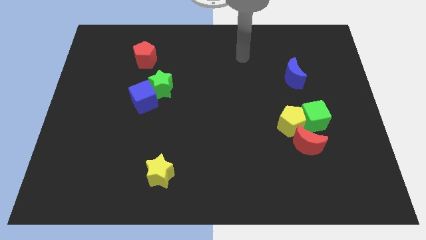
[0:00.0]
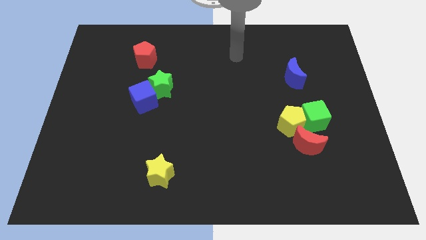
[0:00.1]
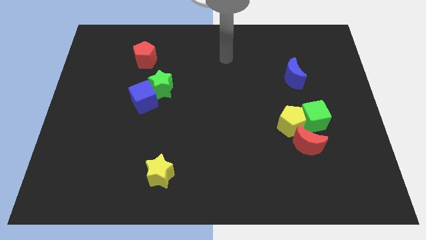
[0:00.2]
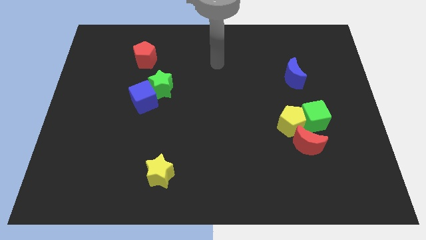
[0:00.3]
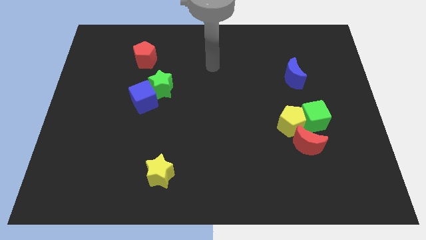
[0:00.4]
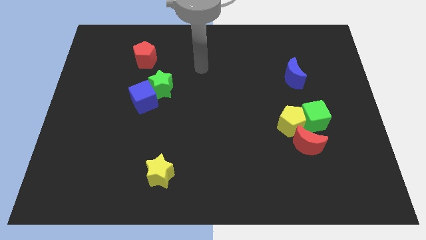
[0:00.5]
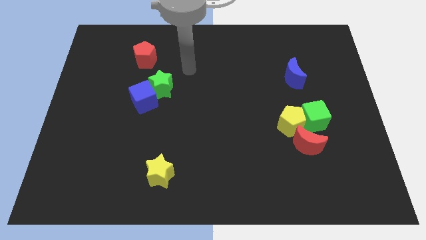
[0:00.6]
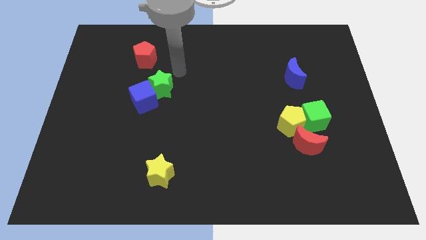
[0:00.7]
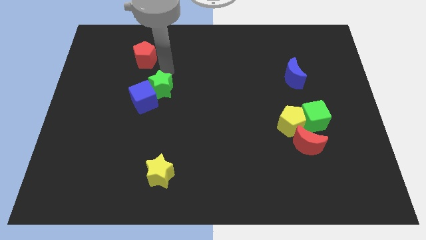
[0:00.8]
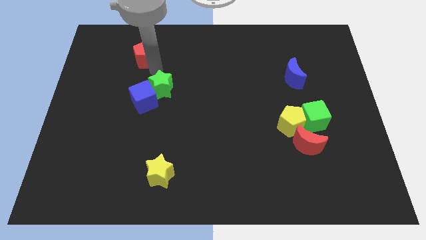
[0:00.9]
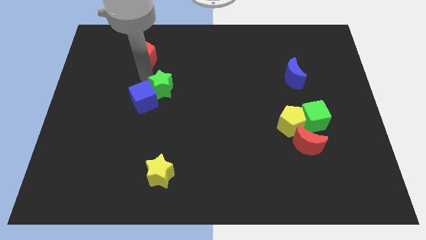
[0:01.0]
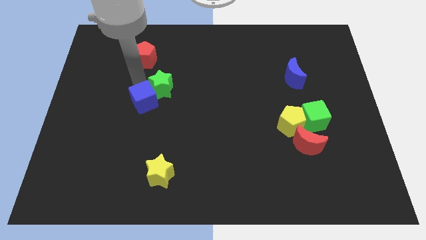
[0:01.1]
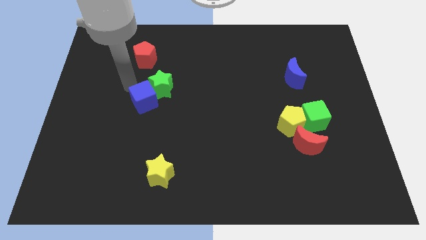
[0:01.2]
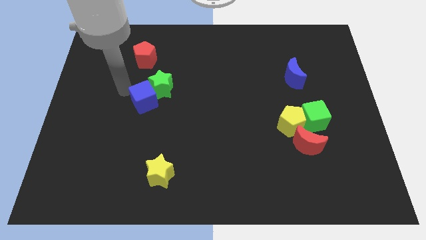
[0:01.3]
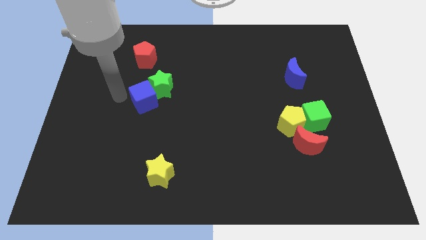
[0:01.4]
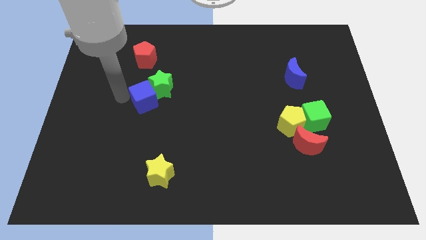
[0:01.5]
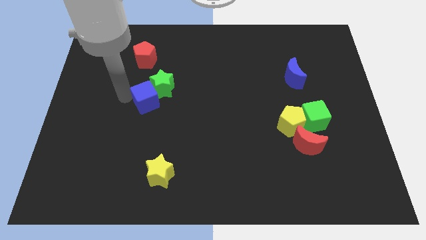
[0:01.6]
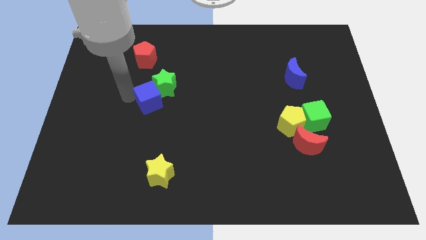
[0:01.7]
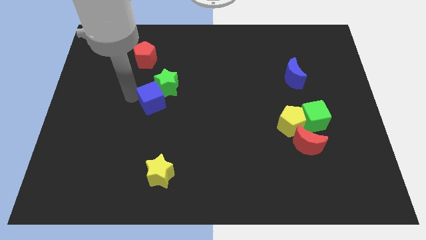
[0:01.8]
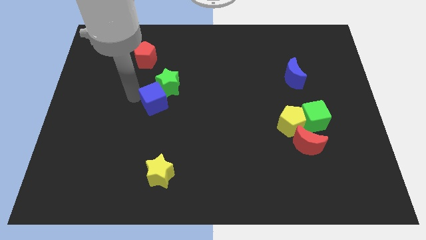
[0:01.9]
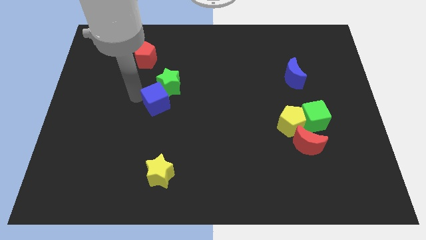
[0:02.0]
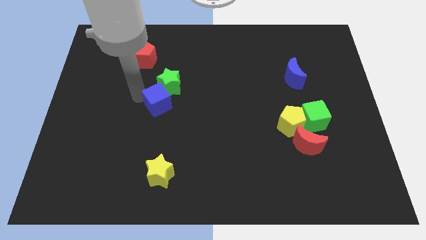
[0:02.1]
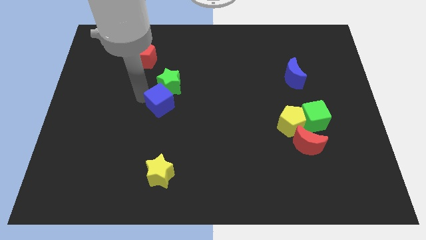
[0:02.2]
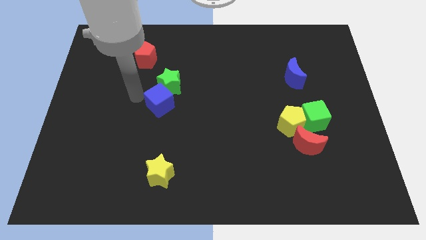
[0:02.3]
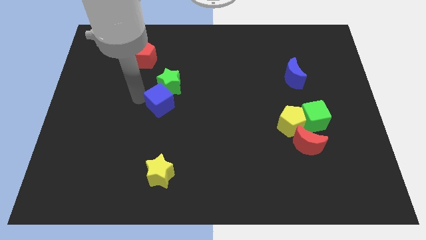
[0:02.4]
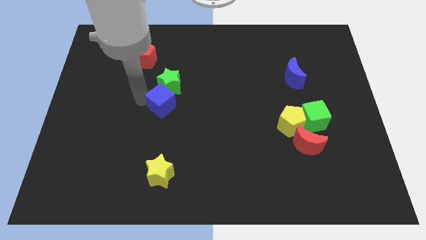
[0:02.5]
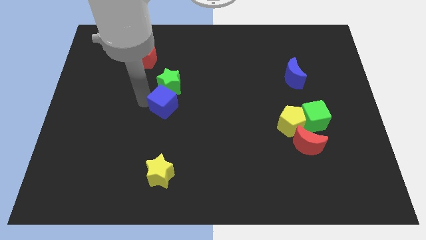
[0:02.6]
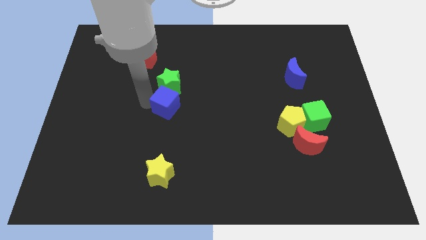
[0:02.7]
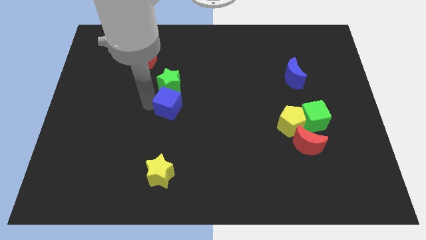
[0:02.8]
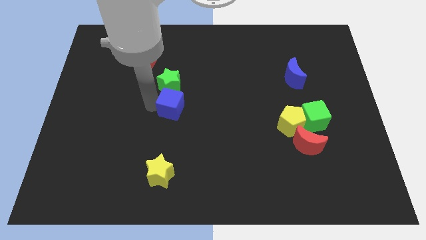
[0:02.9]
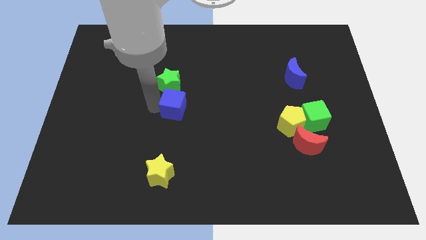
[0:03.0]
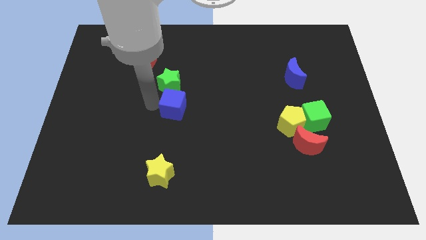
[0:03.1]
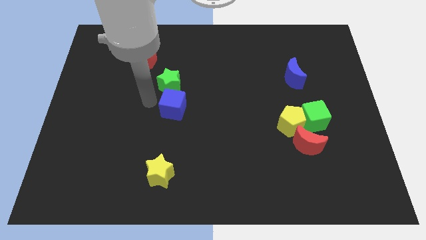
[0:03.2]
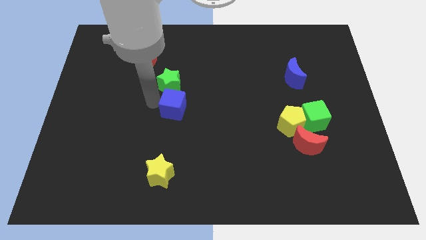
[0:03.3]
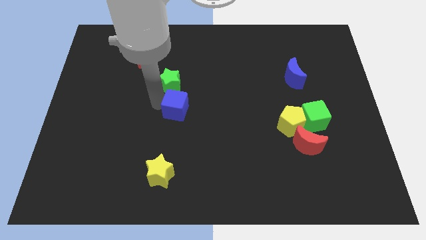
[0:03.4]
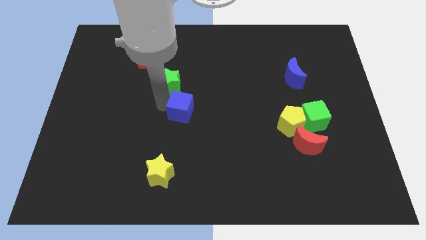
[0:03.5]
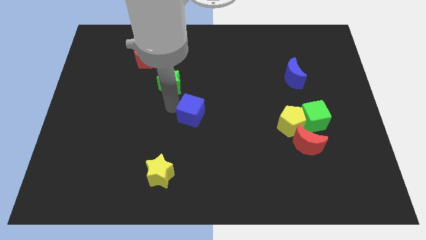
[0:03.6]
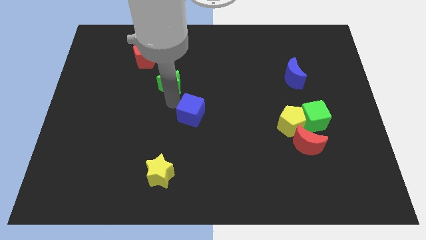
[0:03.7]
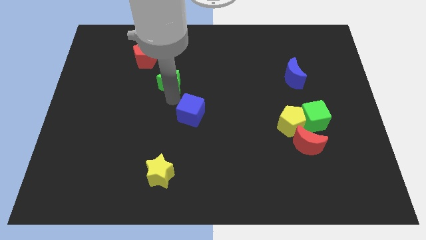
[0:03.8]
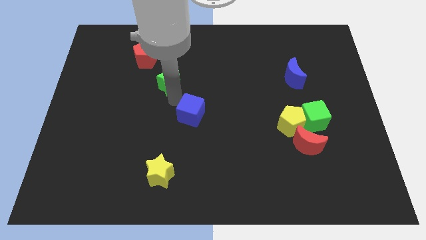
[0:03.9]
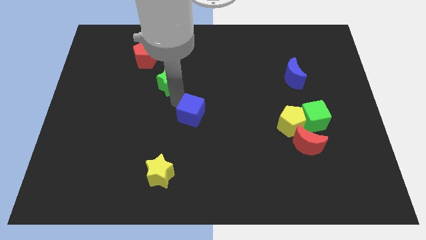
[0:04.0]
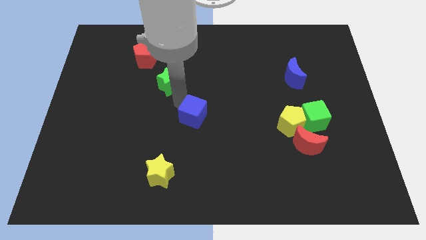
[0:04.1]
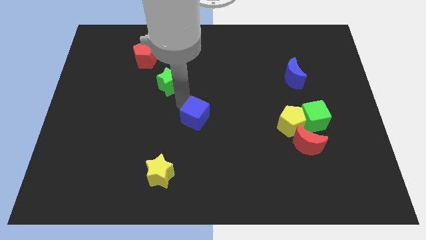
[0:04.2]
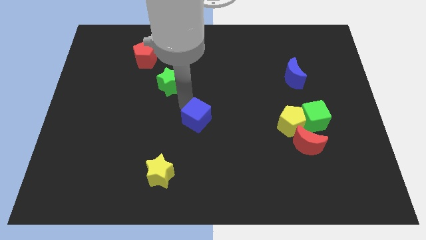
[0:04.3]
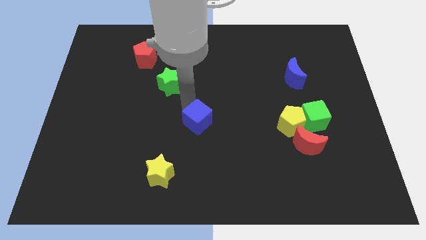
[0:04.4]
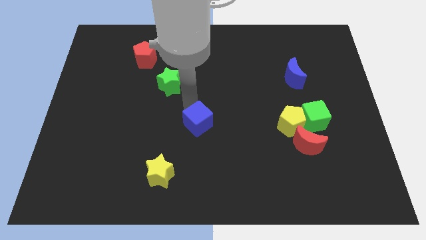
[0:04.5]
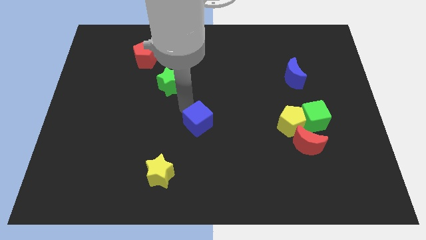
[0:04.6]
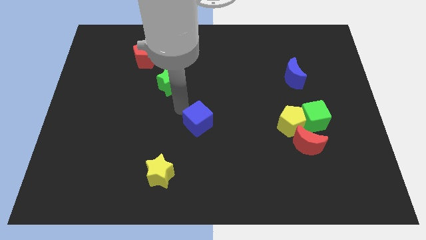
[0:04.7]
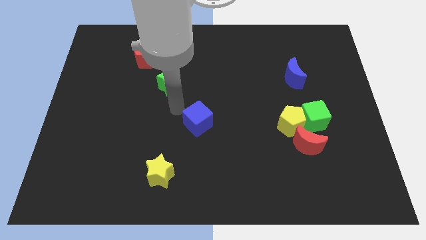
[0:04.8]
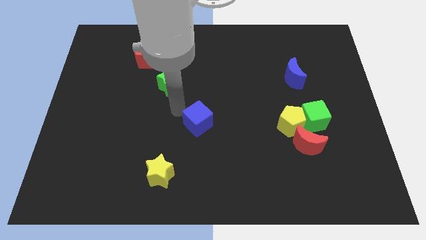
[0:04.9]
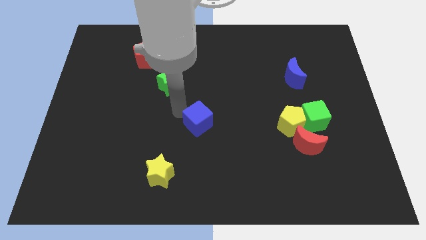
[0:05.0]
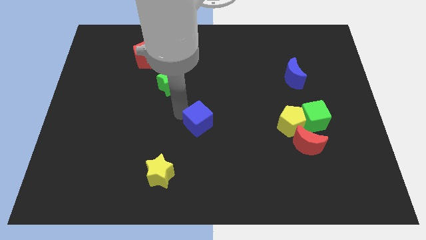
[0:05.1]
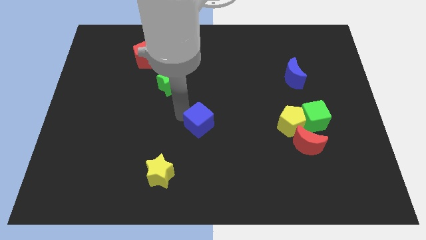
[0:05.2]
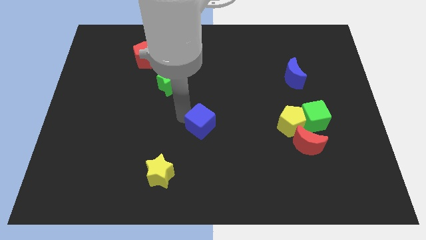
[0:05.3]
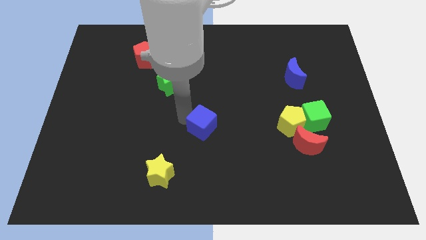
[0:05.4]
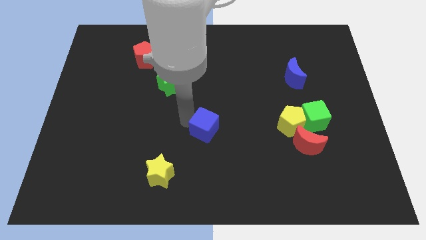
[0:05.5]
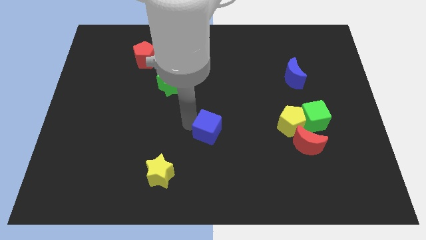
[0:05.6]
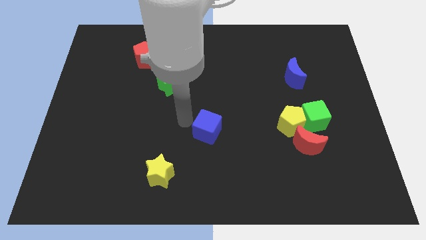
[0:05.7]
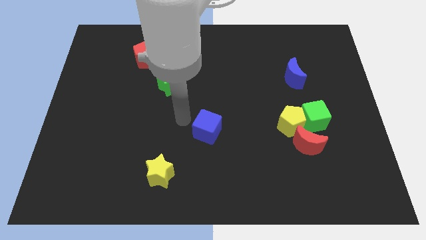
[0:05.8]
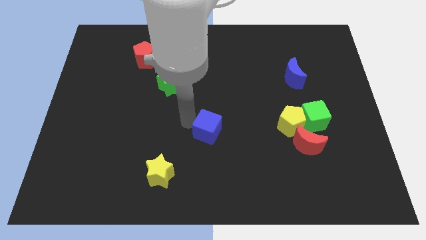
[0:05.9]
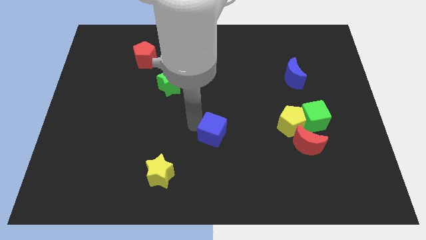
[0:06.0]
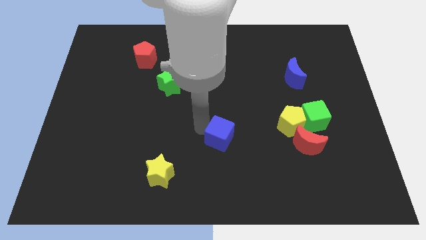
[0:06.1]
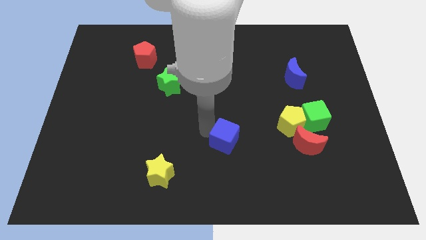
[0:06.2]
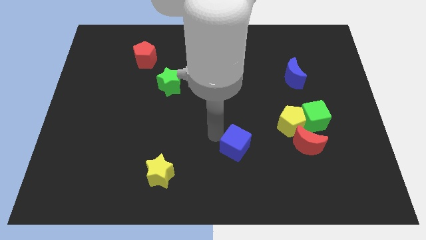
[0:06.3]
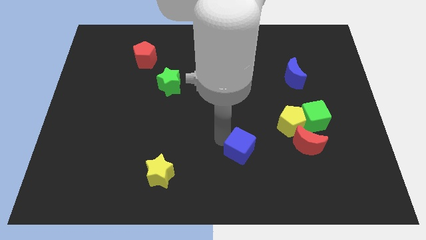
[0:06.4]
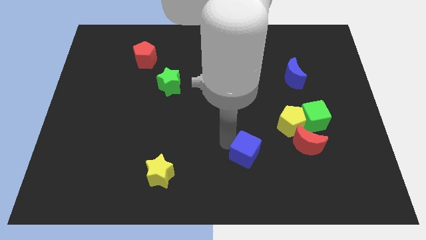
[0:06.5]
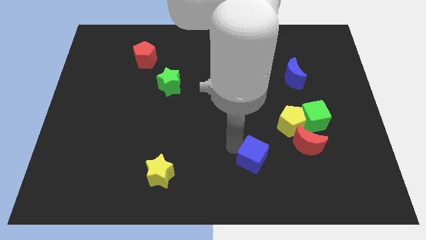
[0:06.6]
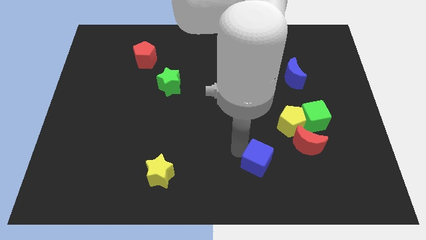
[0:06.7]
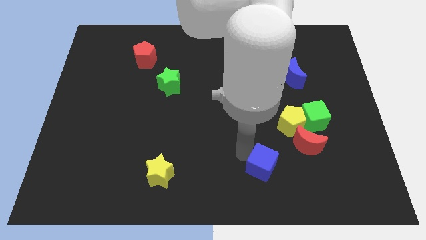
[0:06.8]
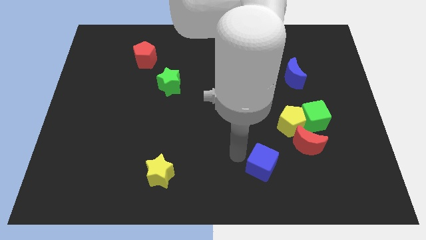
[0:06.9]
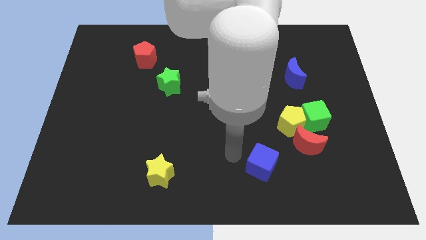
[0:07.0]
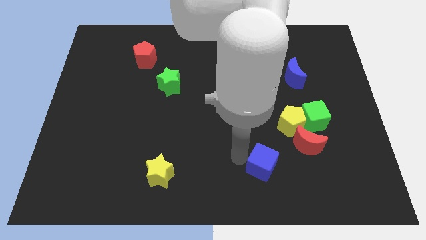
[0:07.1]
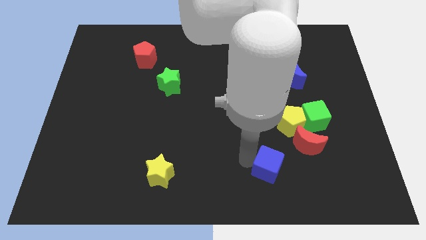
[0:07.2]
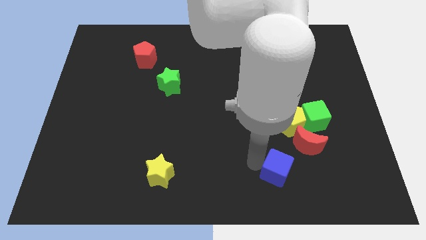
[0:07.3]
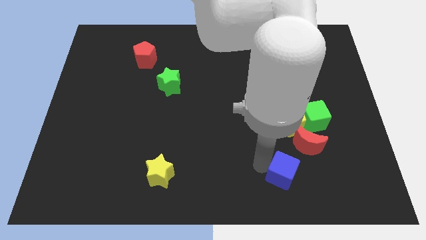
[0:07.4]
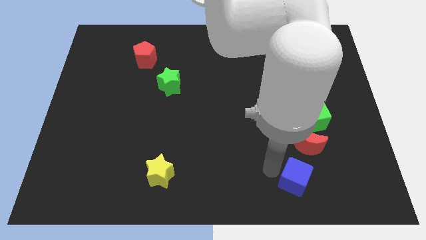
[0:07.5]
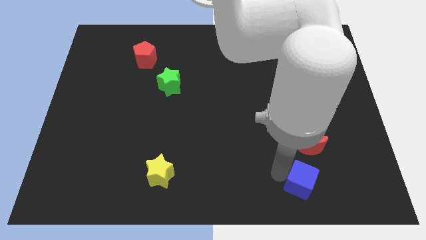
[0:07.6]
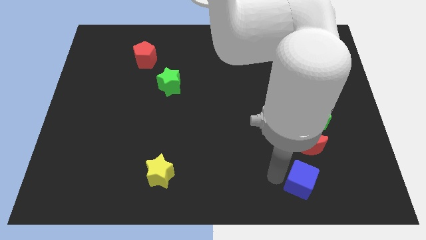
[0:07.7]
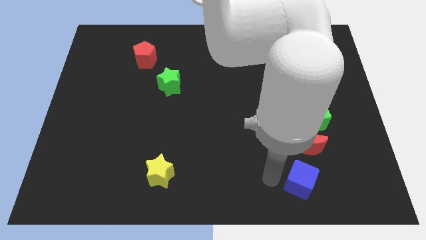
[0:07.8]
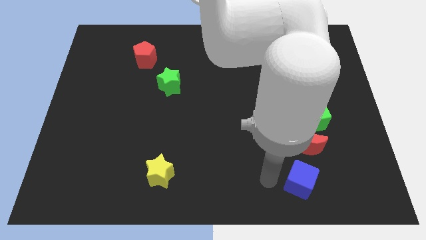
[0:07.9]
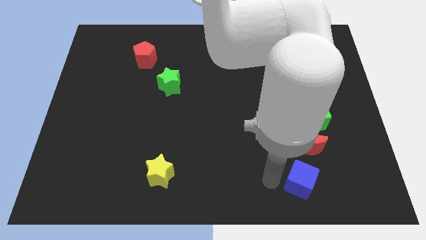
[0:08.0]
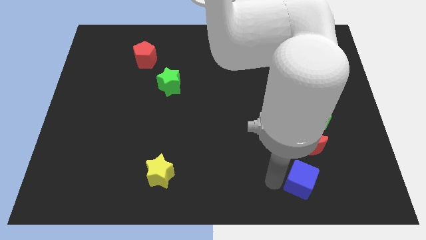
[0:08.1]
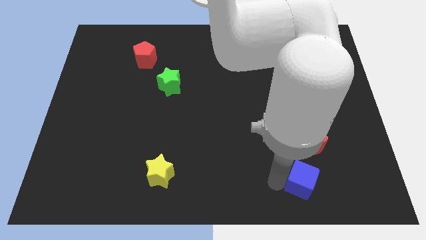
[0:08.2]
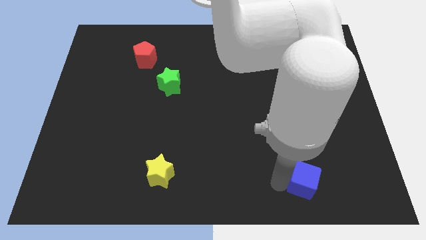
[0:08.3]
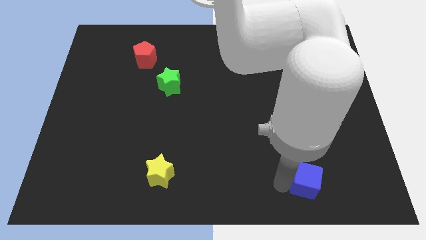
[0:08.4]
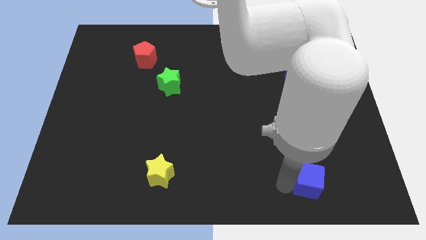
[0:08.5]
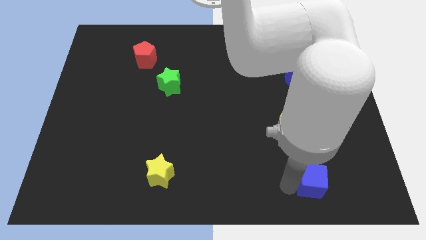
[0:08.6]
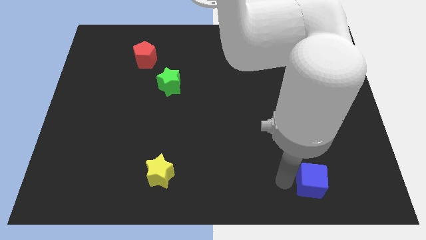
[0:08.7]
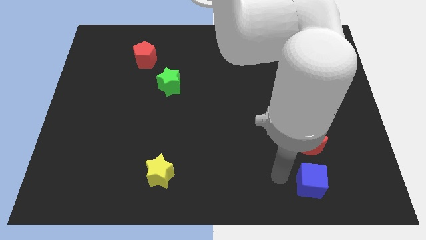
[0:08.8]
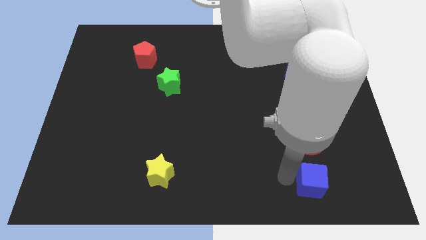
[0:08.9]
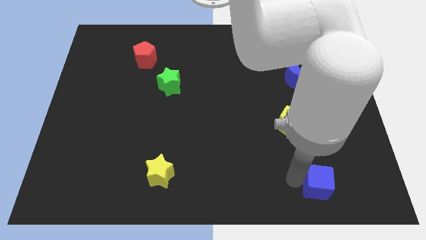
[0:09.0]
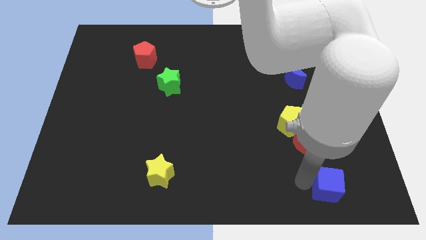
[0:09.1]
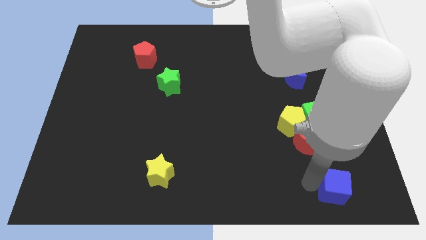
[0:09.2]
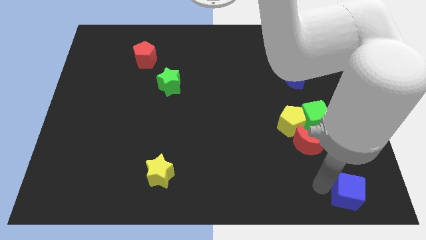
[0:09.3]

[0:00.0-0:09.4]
move the blue cube to the bottom right of the board
